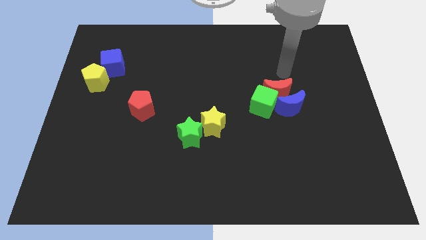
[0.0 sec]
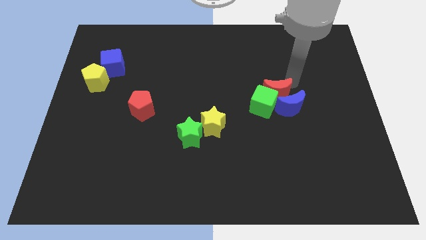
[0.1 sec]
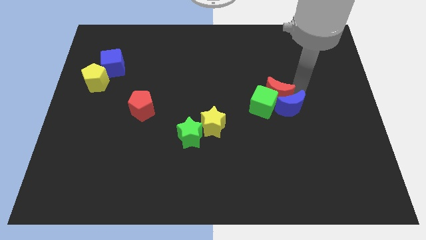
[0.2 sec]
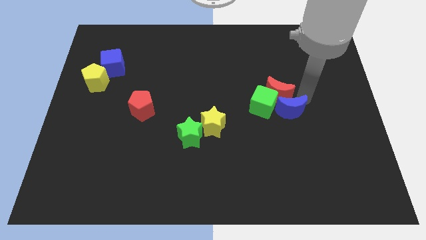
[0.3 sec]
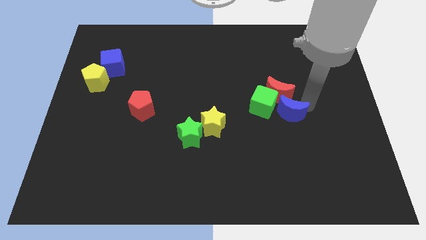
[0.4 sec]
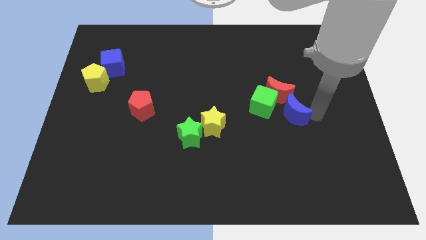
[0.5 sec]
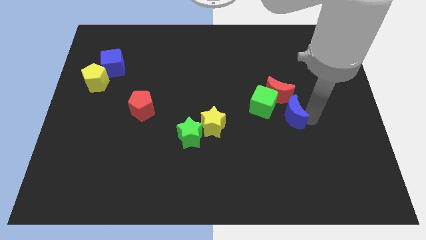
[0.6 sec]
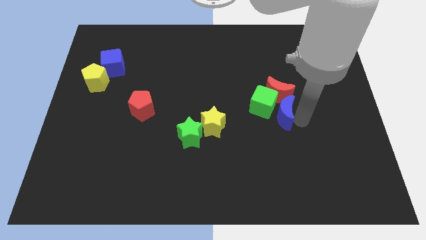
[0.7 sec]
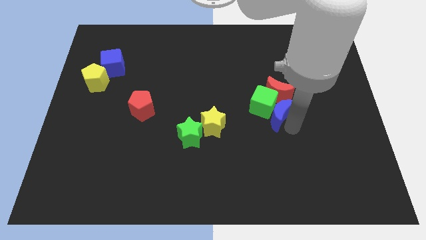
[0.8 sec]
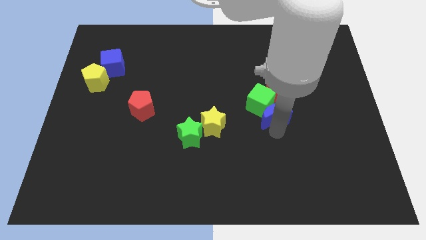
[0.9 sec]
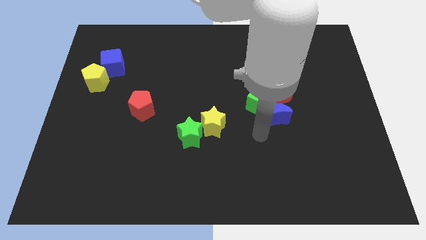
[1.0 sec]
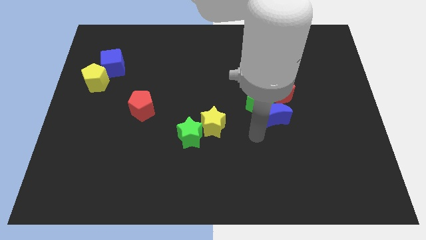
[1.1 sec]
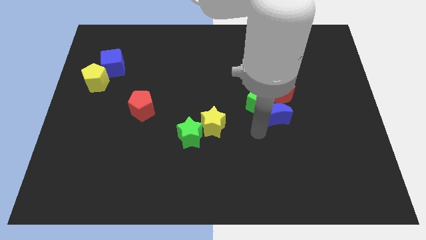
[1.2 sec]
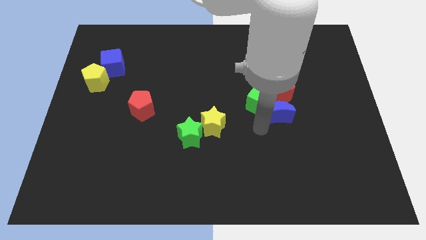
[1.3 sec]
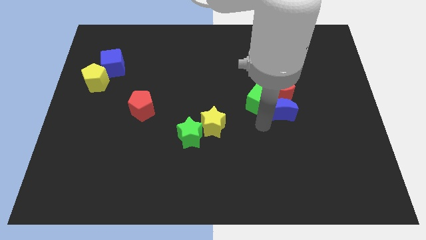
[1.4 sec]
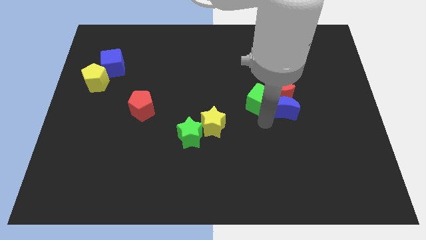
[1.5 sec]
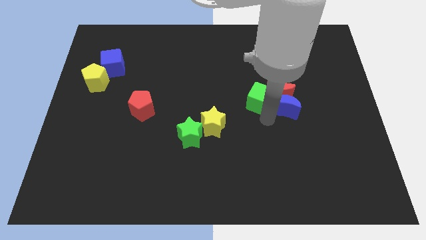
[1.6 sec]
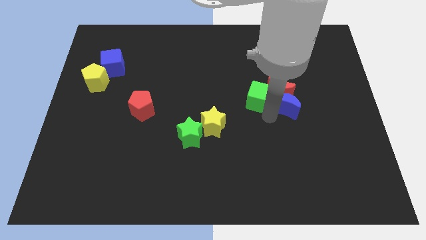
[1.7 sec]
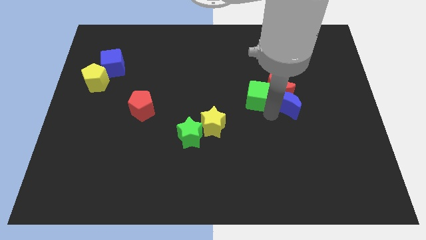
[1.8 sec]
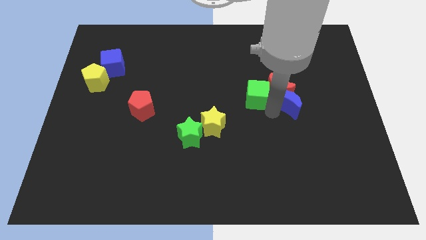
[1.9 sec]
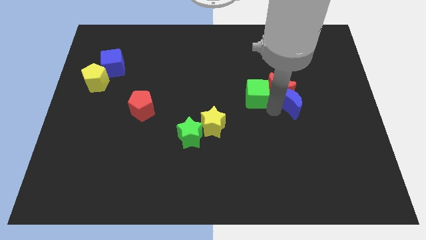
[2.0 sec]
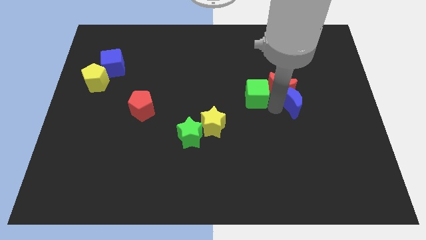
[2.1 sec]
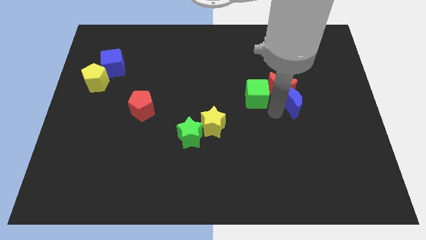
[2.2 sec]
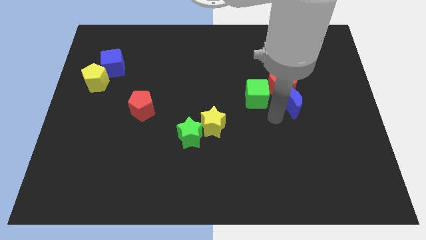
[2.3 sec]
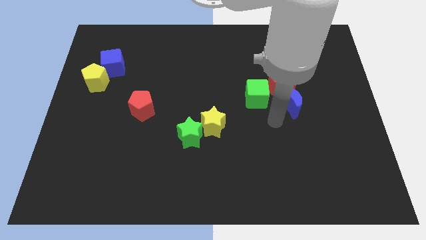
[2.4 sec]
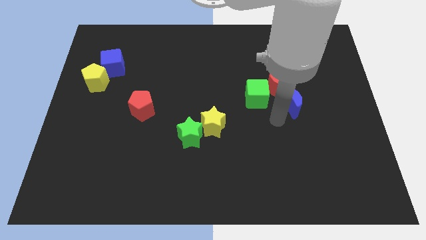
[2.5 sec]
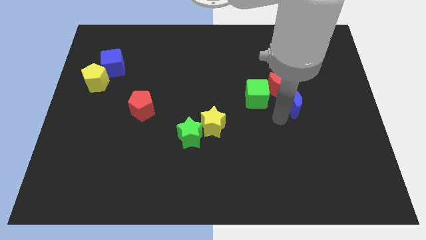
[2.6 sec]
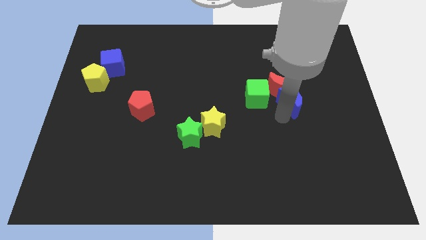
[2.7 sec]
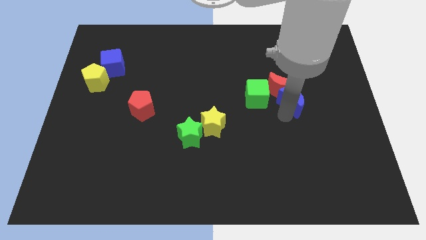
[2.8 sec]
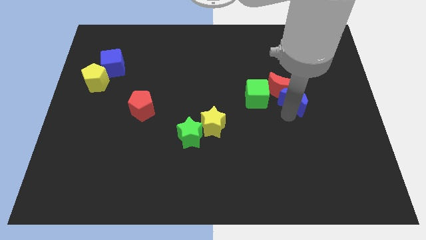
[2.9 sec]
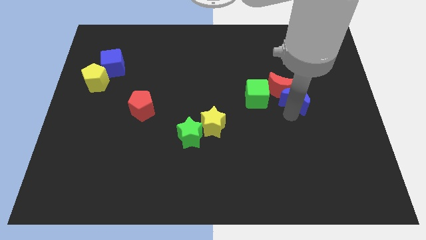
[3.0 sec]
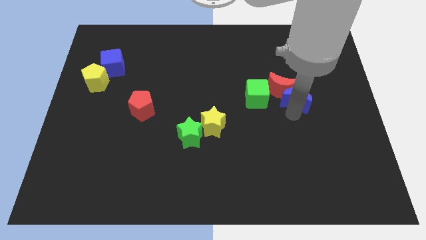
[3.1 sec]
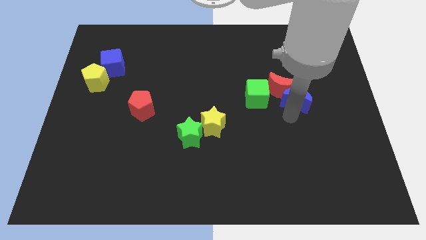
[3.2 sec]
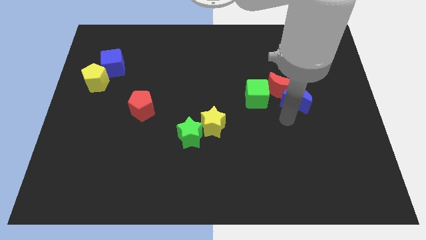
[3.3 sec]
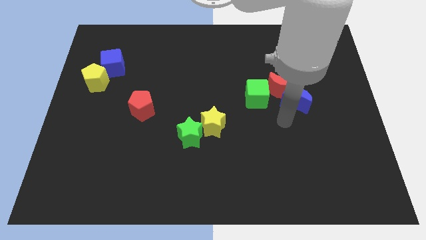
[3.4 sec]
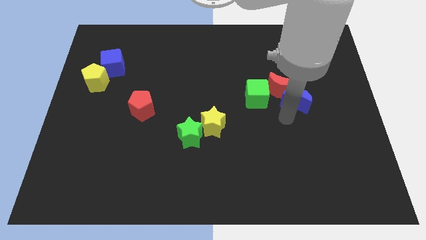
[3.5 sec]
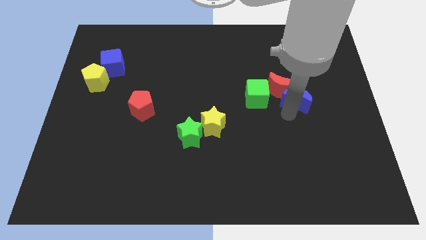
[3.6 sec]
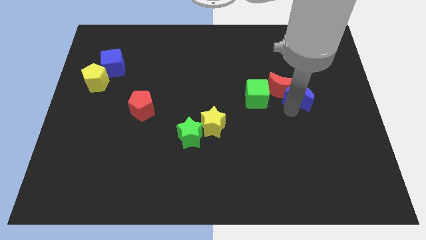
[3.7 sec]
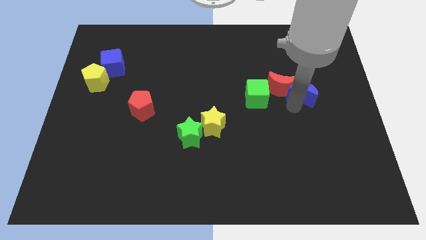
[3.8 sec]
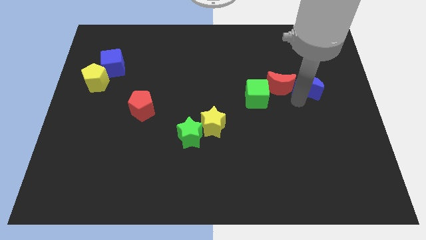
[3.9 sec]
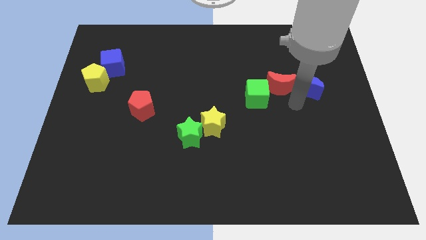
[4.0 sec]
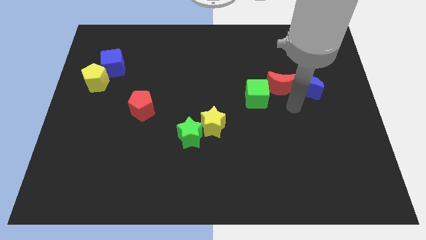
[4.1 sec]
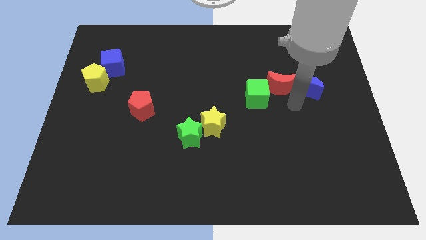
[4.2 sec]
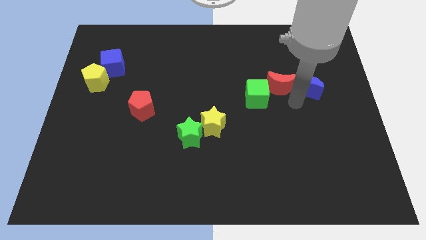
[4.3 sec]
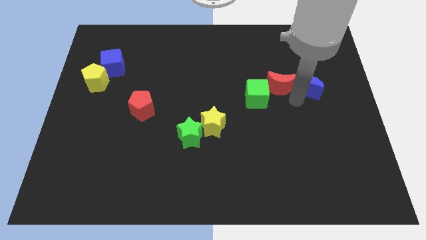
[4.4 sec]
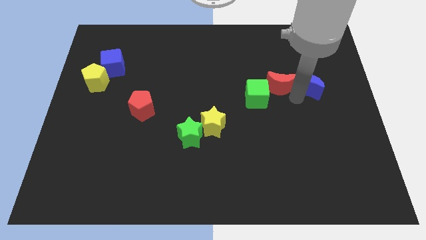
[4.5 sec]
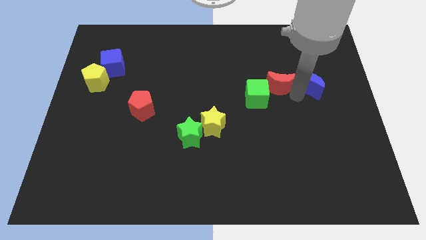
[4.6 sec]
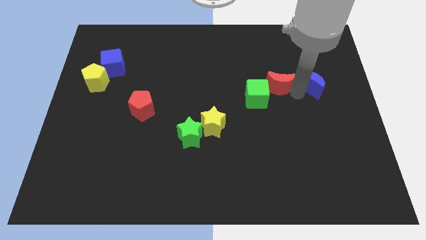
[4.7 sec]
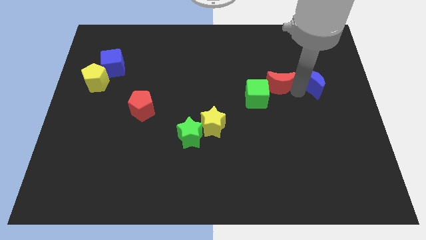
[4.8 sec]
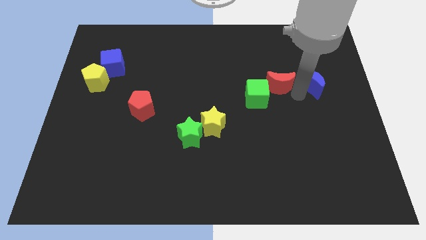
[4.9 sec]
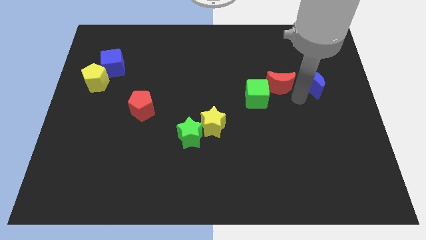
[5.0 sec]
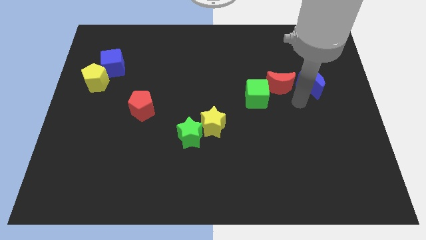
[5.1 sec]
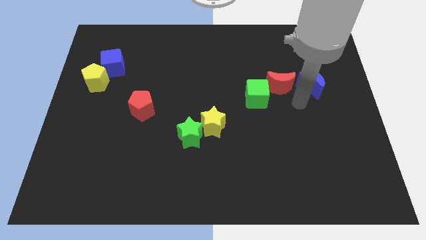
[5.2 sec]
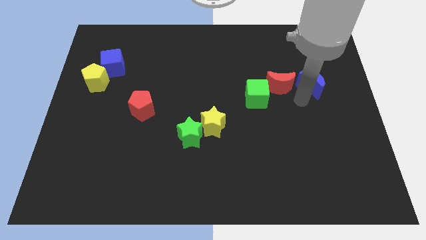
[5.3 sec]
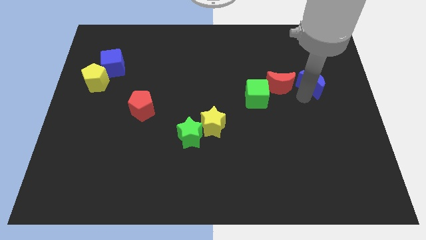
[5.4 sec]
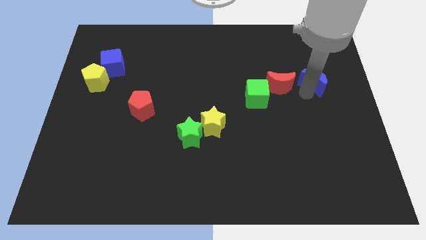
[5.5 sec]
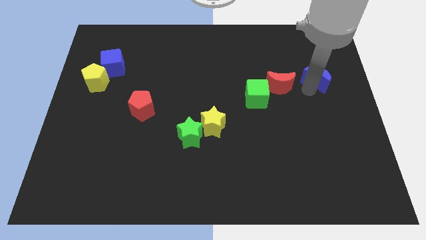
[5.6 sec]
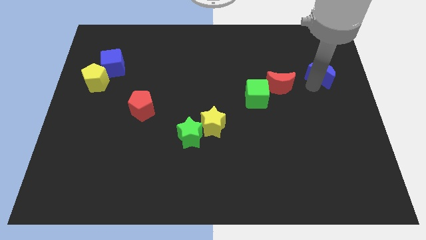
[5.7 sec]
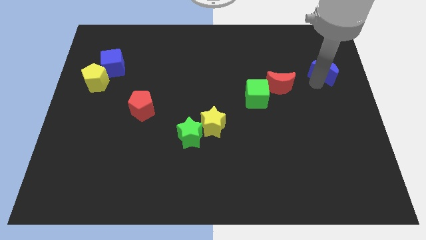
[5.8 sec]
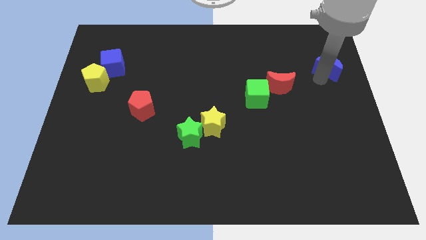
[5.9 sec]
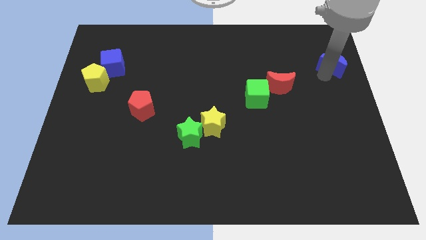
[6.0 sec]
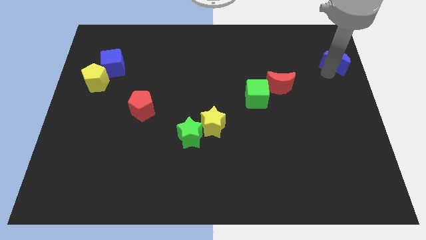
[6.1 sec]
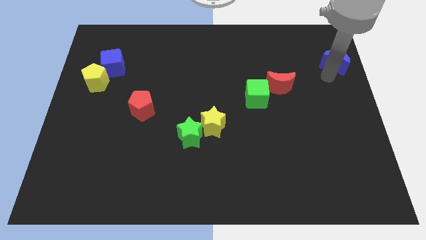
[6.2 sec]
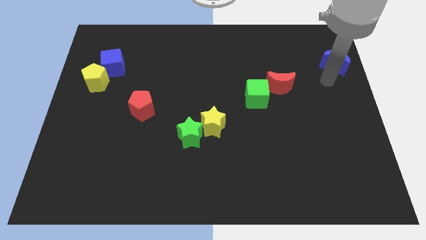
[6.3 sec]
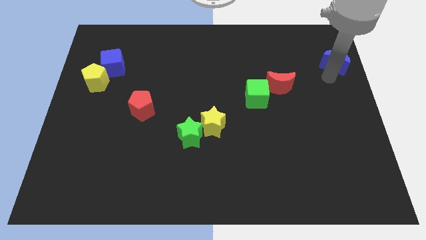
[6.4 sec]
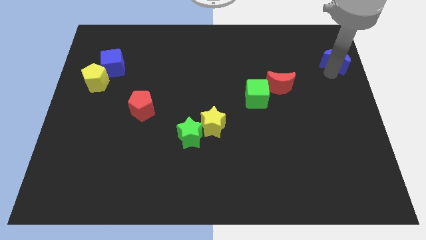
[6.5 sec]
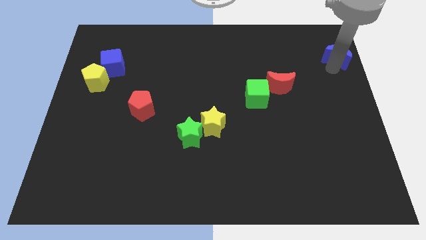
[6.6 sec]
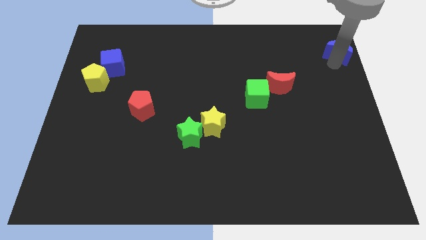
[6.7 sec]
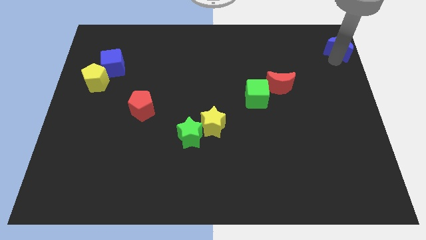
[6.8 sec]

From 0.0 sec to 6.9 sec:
put the blue moon to the top right

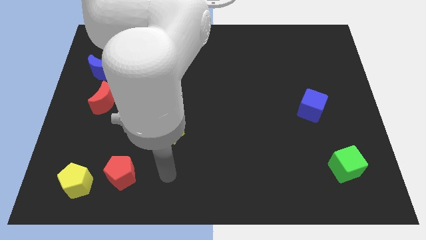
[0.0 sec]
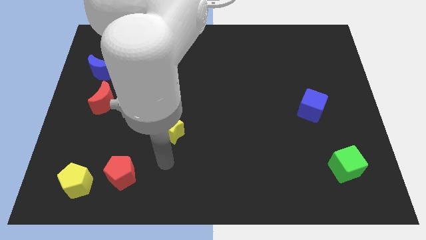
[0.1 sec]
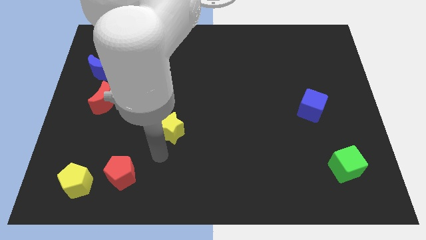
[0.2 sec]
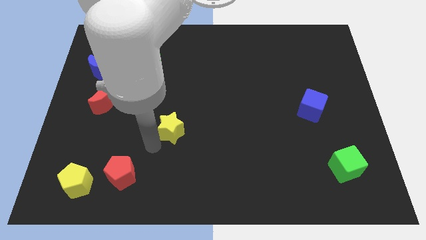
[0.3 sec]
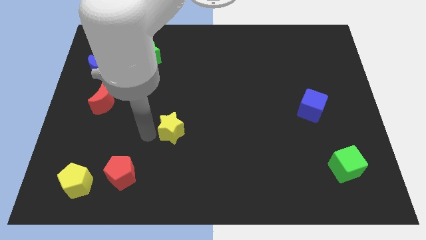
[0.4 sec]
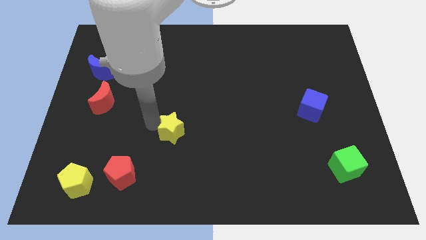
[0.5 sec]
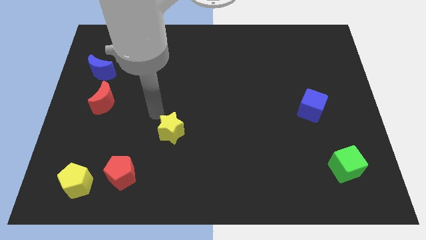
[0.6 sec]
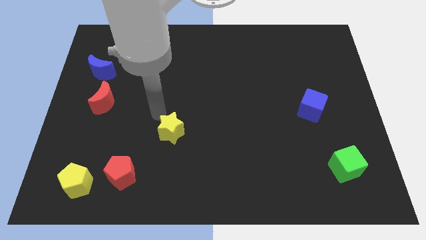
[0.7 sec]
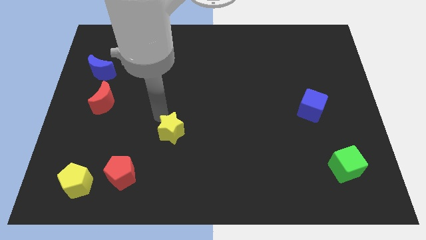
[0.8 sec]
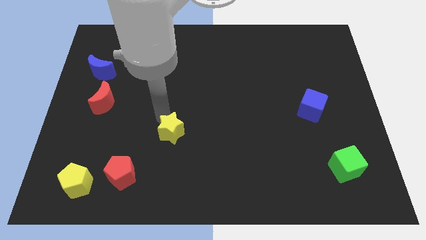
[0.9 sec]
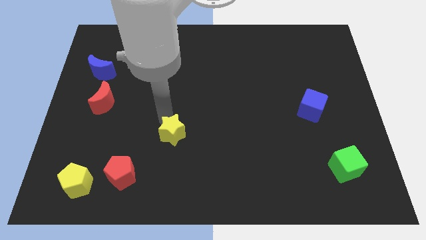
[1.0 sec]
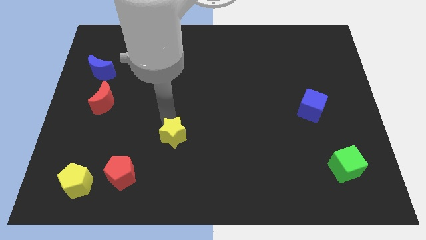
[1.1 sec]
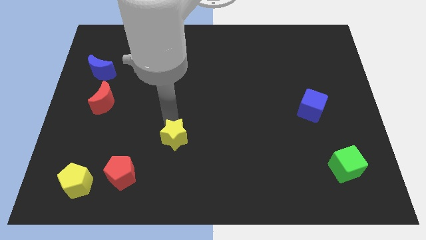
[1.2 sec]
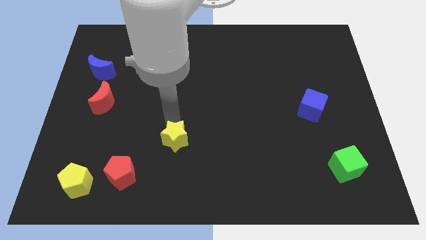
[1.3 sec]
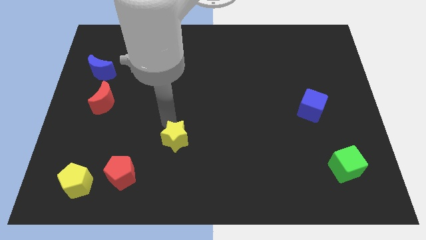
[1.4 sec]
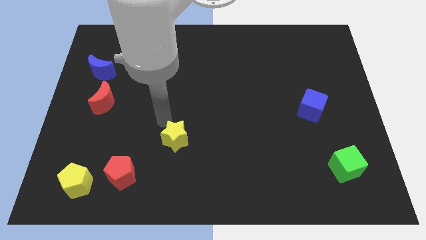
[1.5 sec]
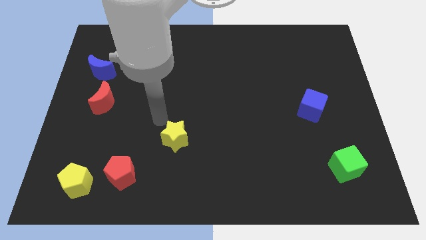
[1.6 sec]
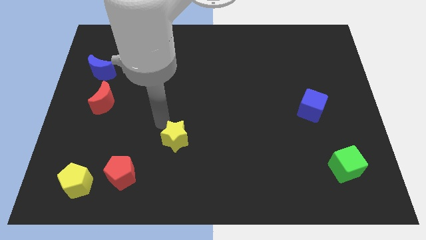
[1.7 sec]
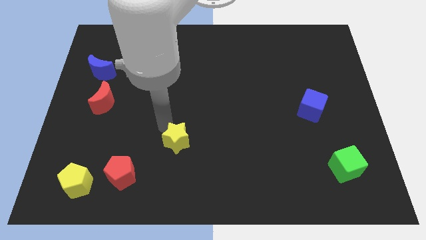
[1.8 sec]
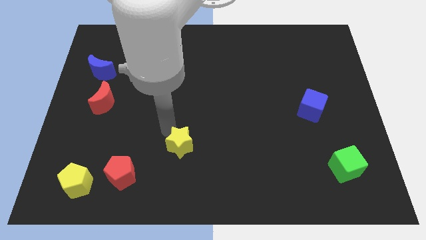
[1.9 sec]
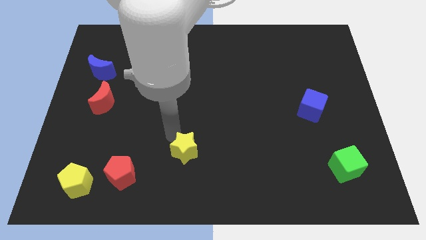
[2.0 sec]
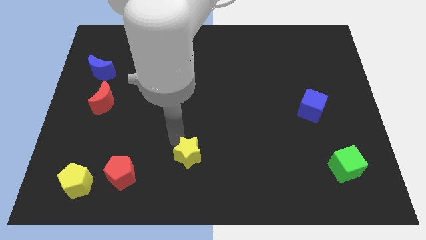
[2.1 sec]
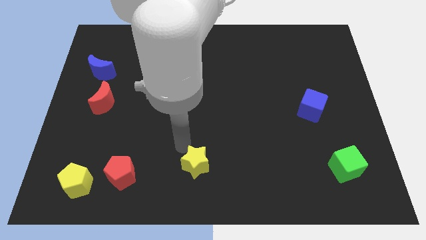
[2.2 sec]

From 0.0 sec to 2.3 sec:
move the yellow star to the bottom
